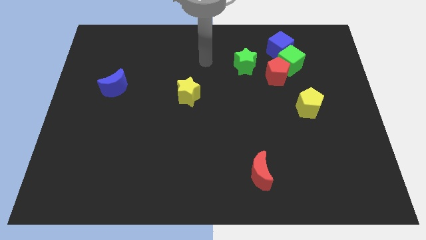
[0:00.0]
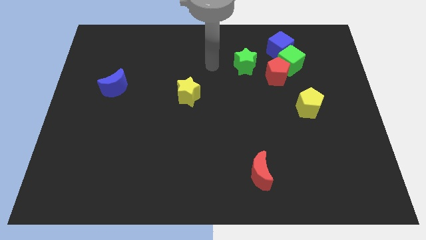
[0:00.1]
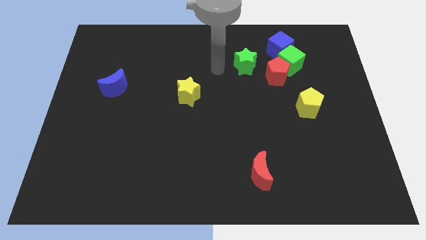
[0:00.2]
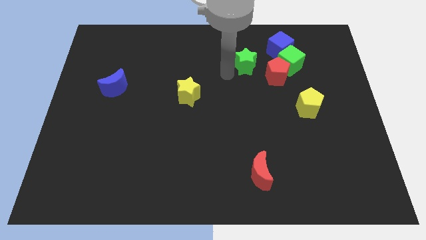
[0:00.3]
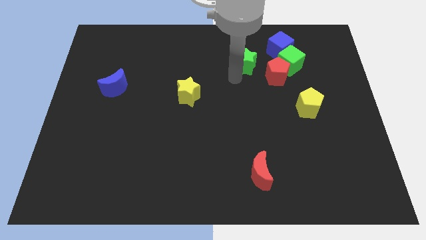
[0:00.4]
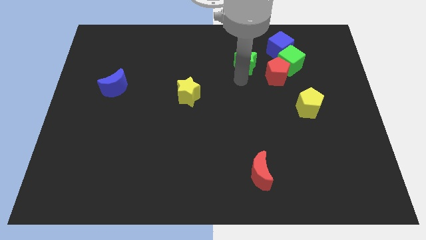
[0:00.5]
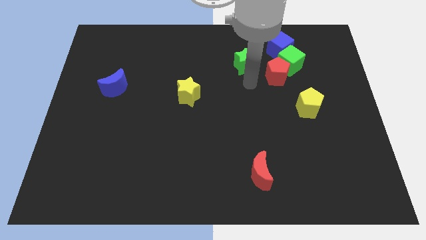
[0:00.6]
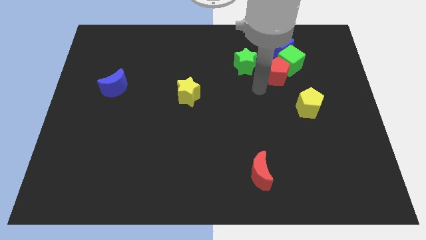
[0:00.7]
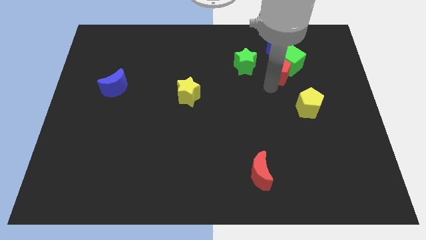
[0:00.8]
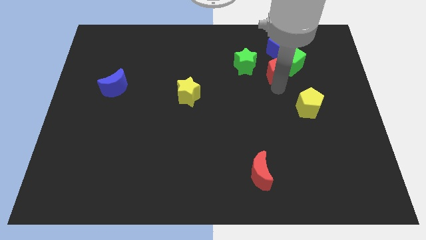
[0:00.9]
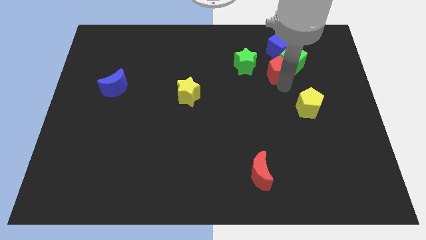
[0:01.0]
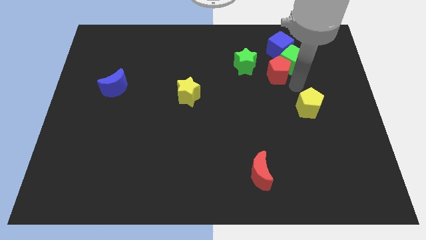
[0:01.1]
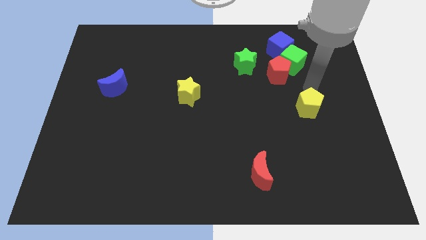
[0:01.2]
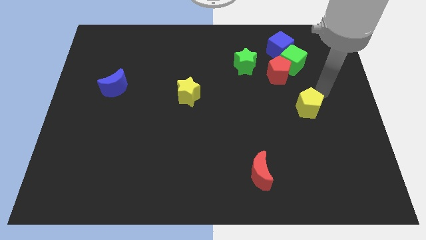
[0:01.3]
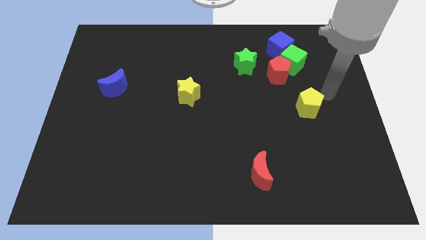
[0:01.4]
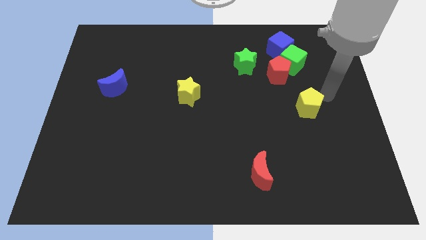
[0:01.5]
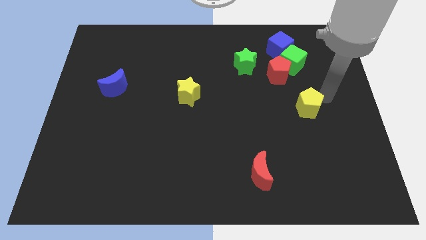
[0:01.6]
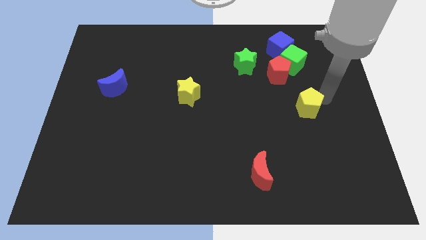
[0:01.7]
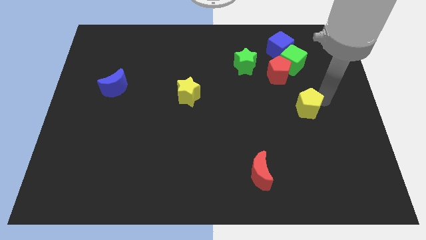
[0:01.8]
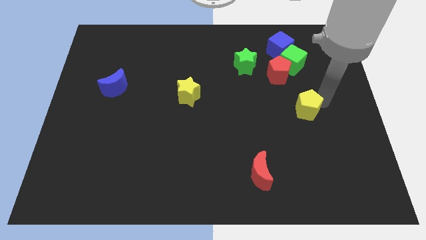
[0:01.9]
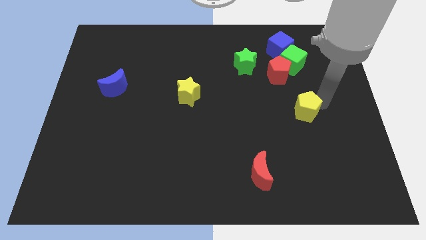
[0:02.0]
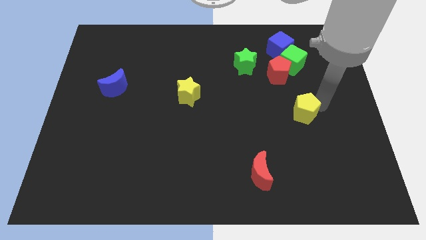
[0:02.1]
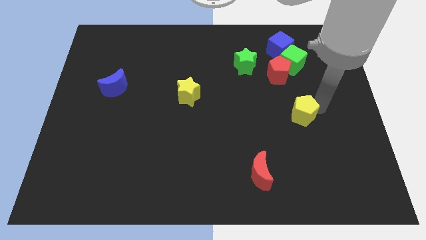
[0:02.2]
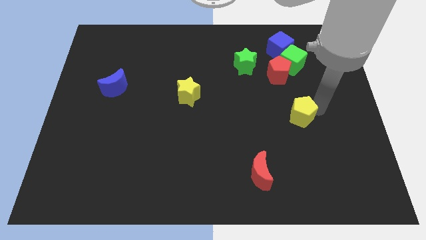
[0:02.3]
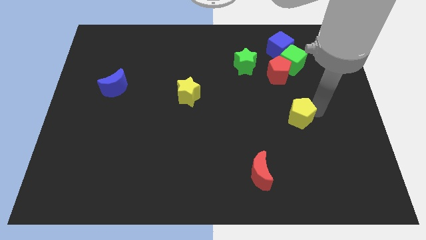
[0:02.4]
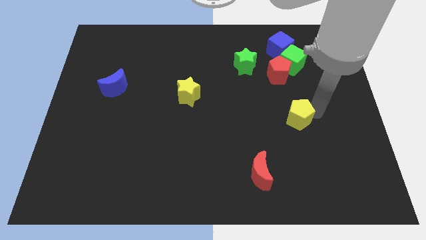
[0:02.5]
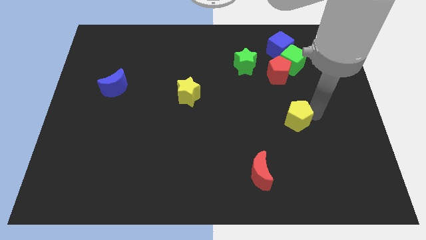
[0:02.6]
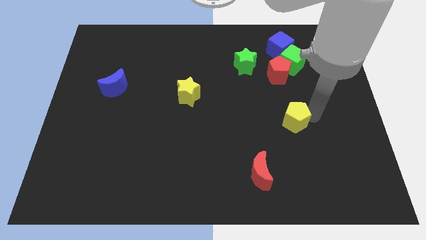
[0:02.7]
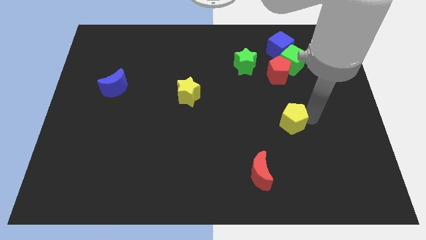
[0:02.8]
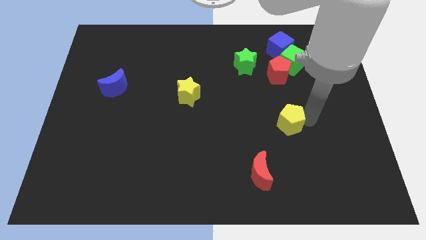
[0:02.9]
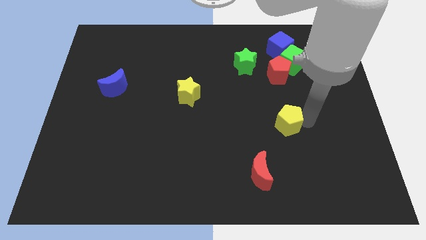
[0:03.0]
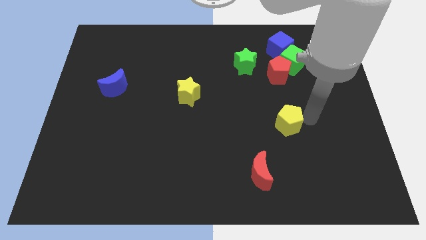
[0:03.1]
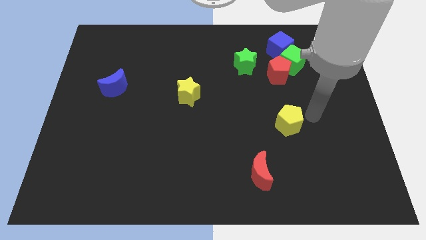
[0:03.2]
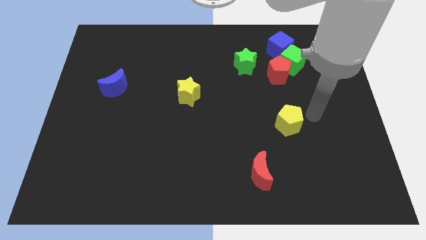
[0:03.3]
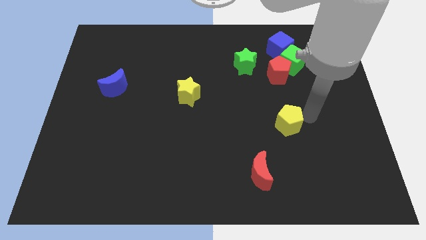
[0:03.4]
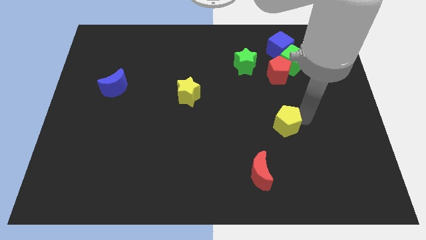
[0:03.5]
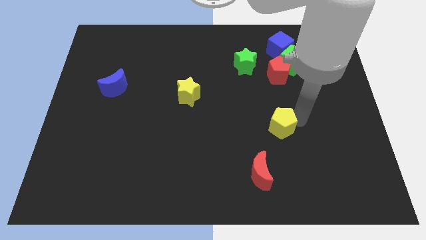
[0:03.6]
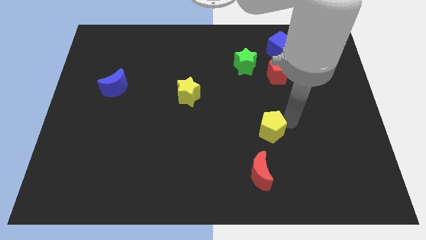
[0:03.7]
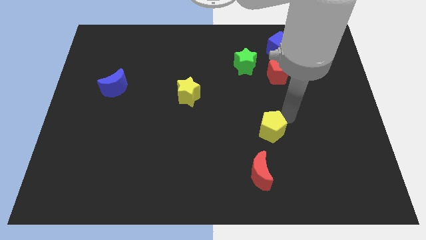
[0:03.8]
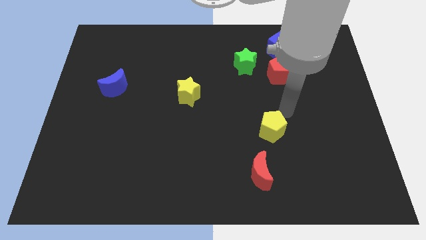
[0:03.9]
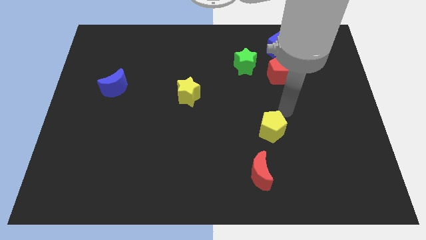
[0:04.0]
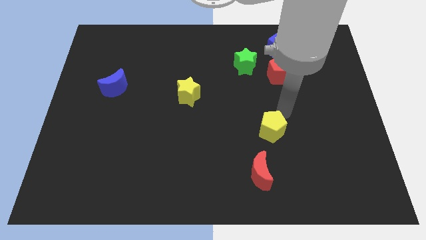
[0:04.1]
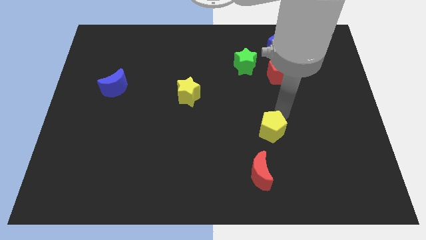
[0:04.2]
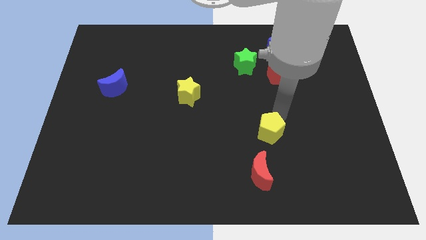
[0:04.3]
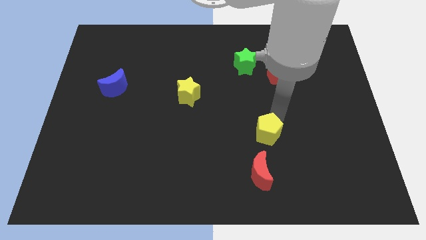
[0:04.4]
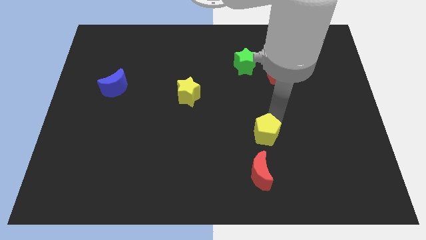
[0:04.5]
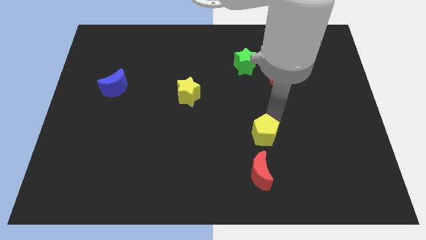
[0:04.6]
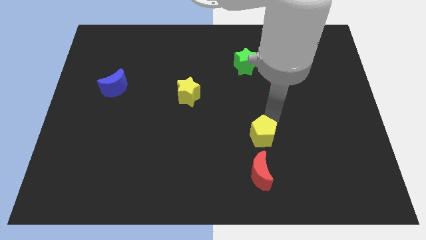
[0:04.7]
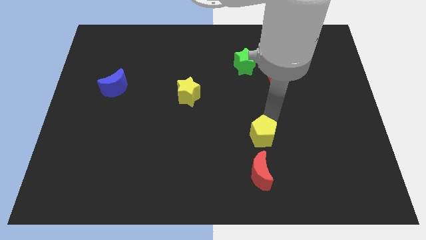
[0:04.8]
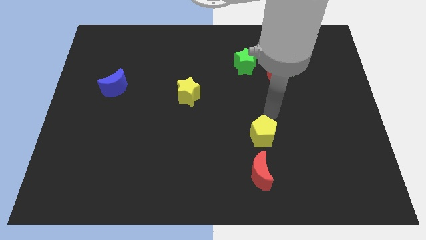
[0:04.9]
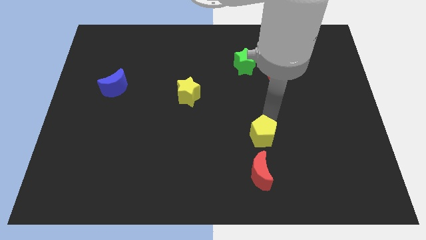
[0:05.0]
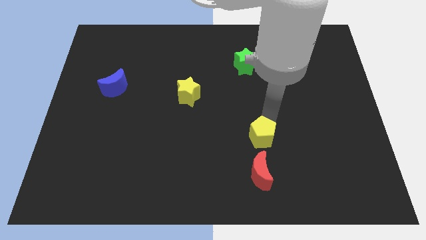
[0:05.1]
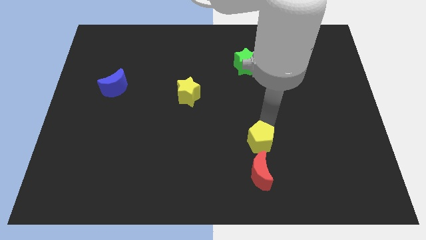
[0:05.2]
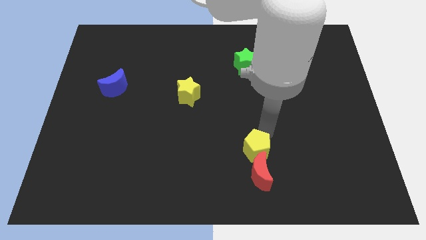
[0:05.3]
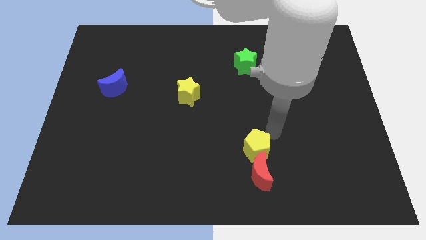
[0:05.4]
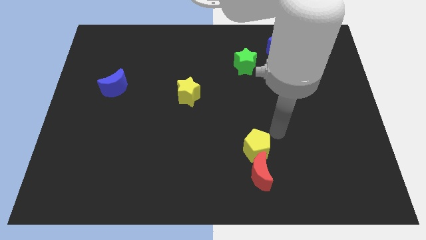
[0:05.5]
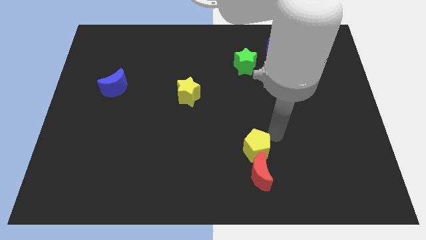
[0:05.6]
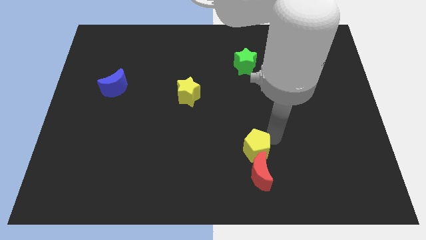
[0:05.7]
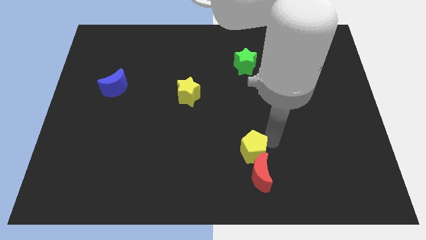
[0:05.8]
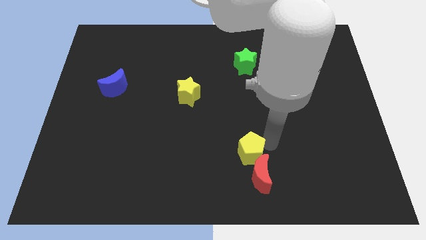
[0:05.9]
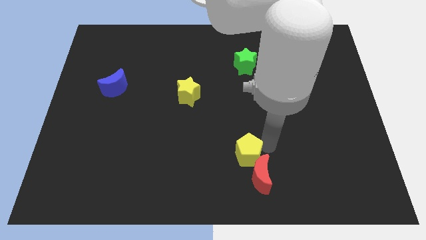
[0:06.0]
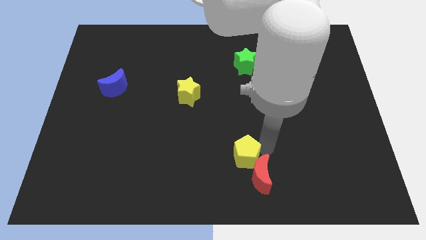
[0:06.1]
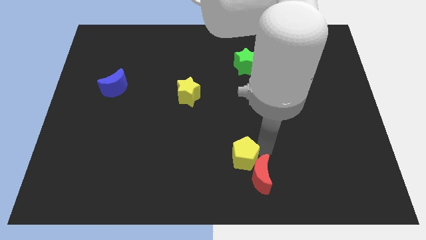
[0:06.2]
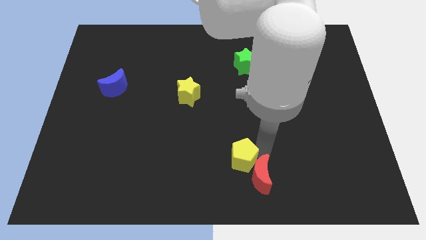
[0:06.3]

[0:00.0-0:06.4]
put the yellow pentagon to the bottom

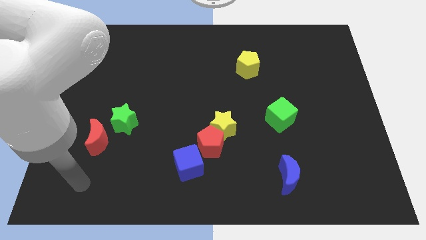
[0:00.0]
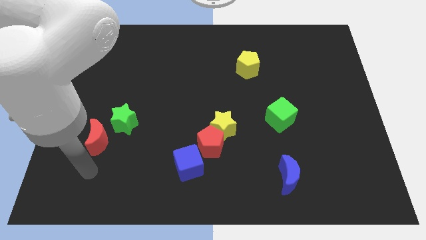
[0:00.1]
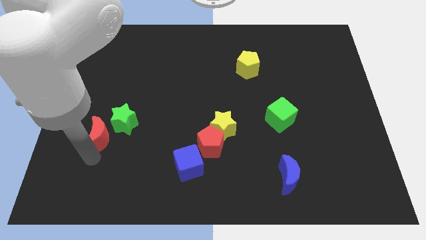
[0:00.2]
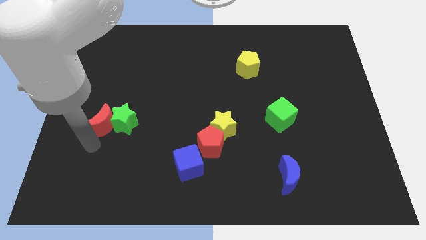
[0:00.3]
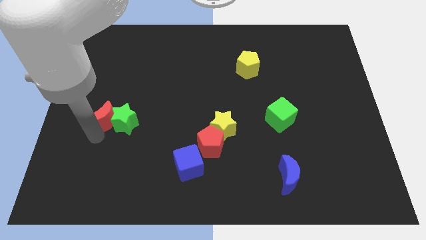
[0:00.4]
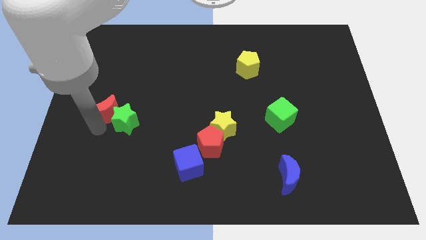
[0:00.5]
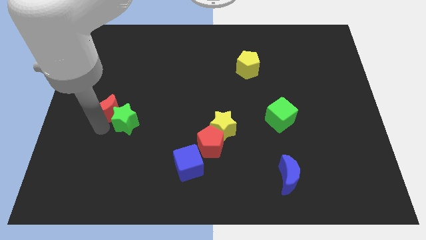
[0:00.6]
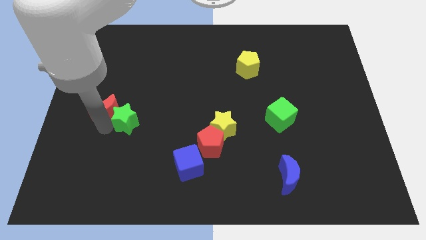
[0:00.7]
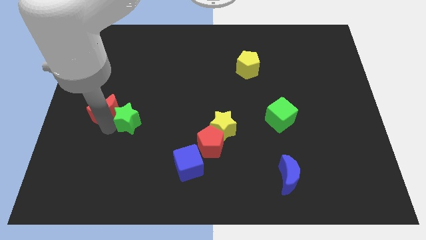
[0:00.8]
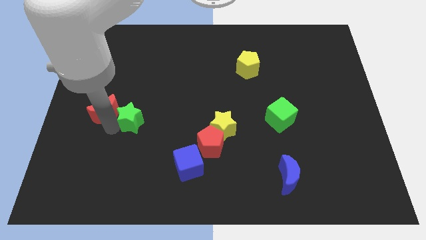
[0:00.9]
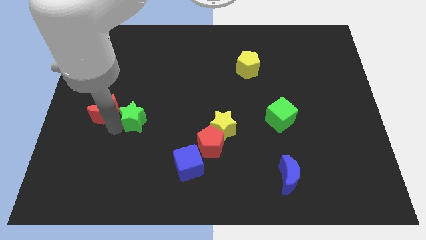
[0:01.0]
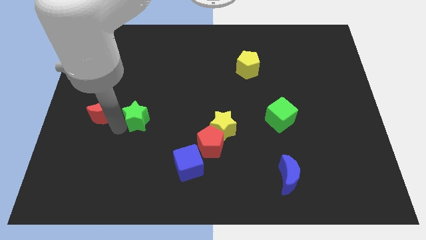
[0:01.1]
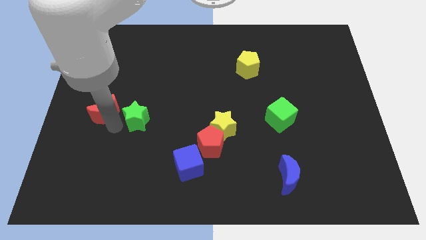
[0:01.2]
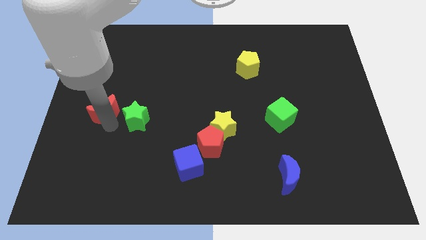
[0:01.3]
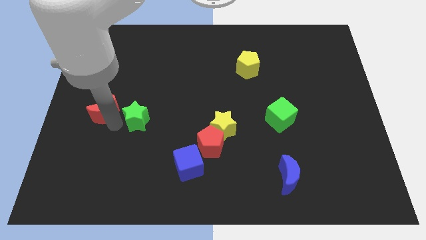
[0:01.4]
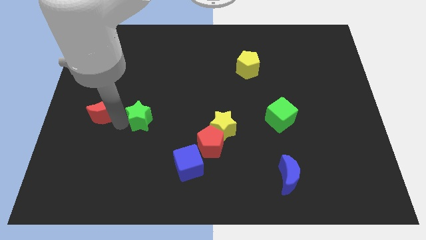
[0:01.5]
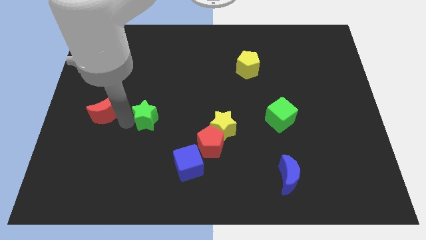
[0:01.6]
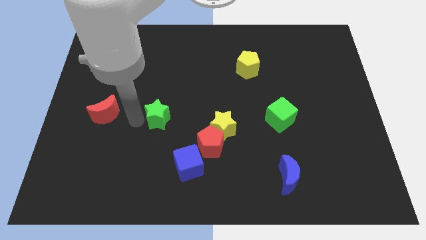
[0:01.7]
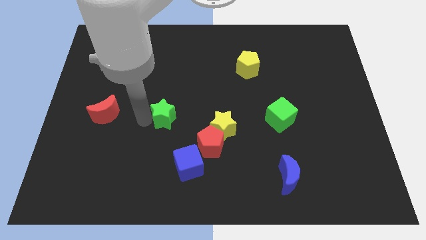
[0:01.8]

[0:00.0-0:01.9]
put the green star to the center of the board

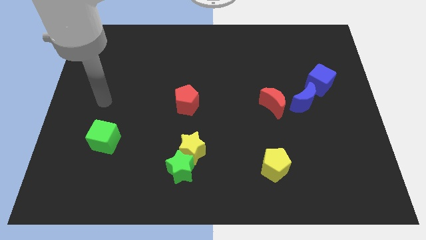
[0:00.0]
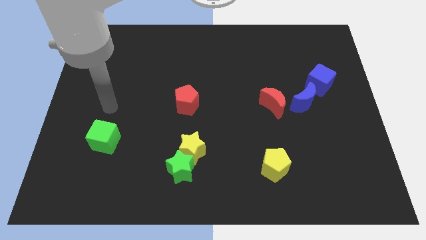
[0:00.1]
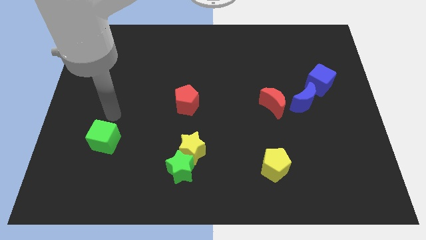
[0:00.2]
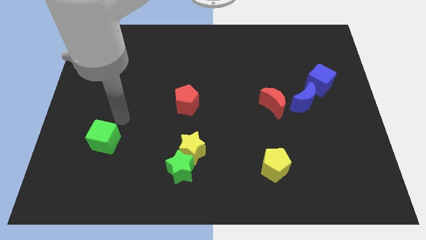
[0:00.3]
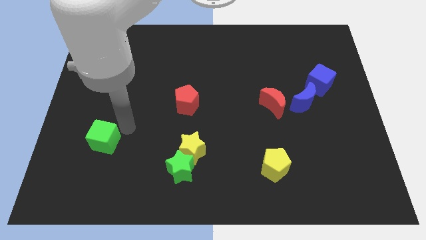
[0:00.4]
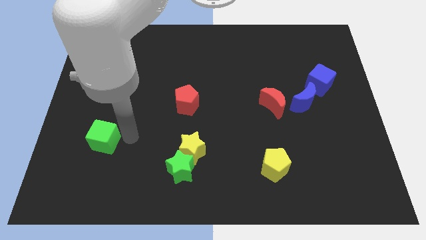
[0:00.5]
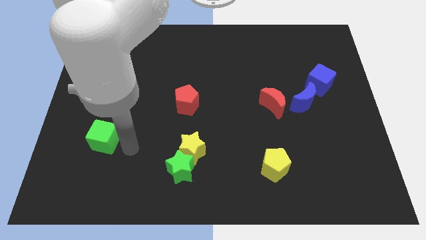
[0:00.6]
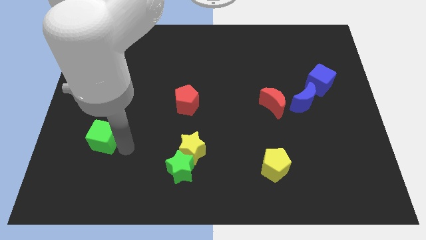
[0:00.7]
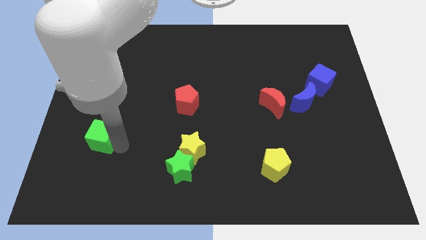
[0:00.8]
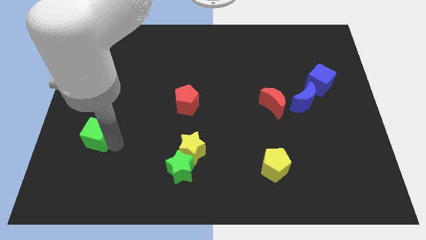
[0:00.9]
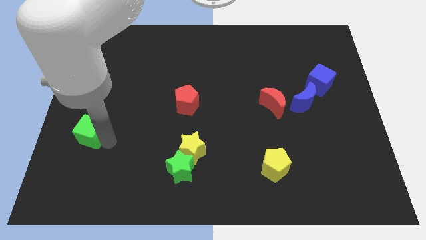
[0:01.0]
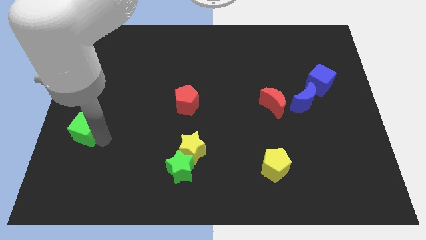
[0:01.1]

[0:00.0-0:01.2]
slide the green cube to the left side
